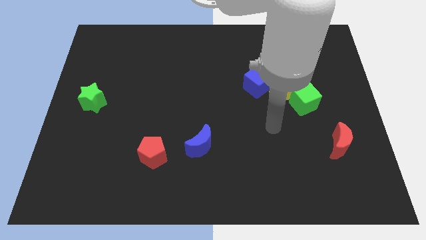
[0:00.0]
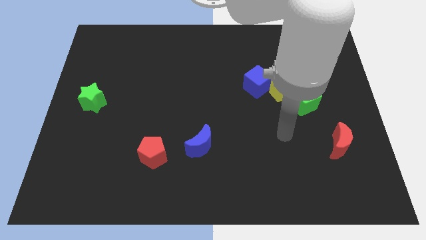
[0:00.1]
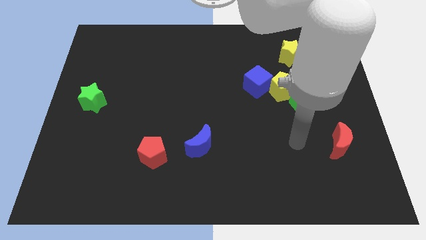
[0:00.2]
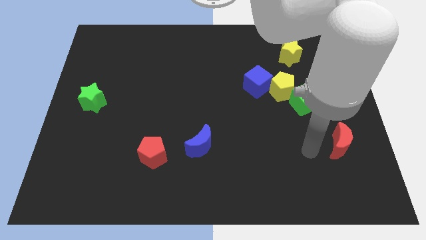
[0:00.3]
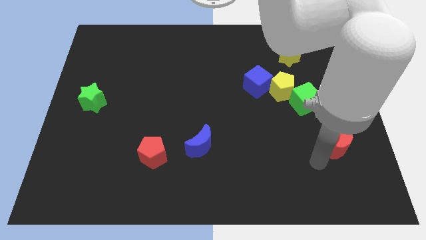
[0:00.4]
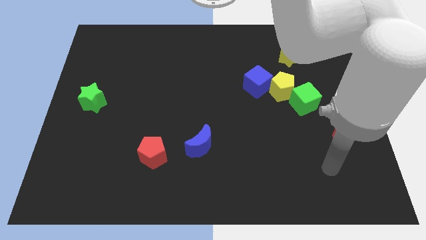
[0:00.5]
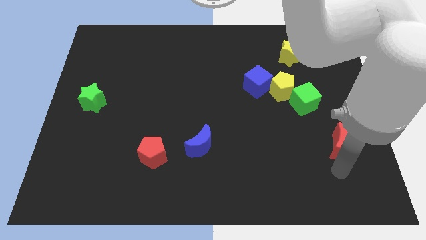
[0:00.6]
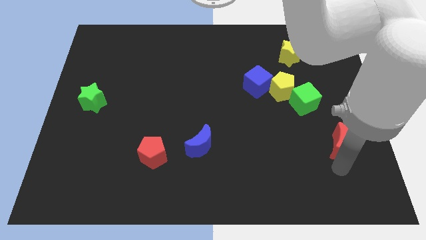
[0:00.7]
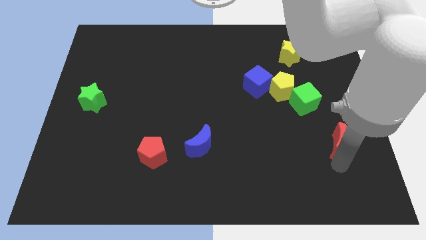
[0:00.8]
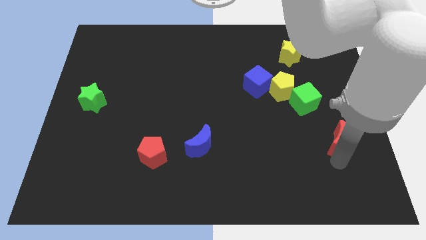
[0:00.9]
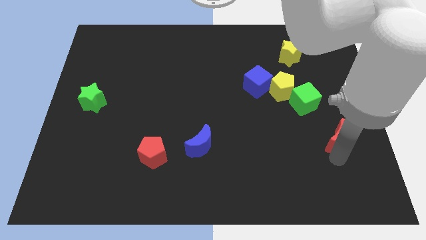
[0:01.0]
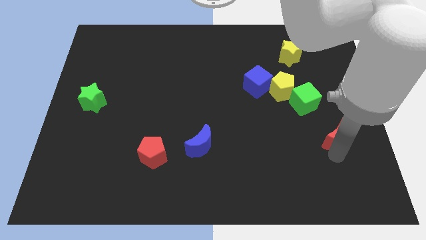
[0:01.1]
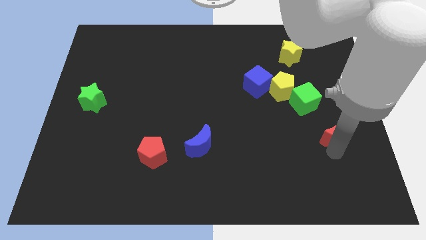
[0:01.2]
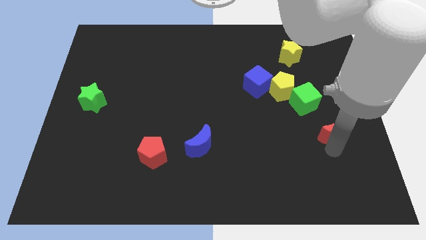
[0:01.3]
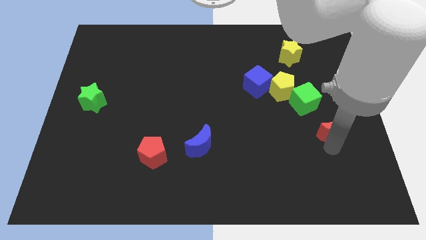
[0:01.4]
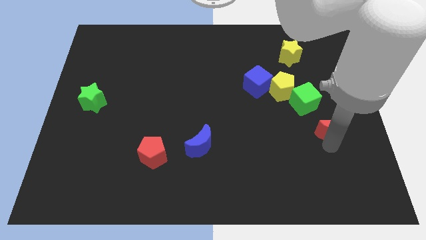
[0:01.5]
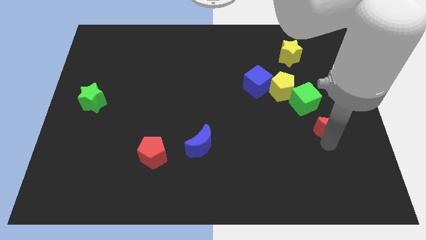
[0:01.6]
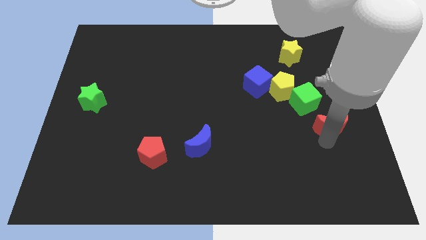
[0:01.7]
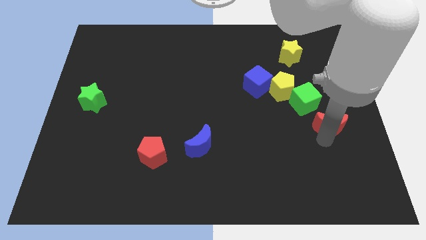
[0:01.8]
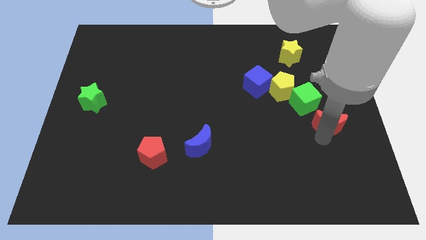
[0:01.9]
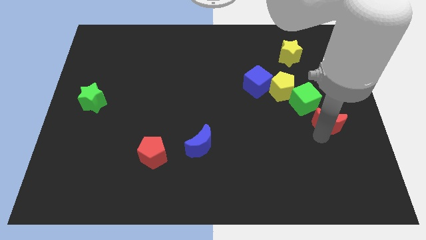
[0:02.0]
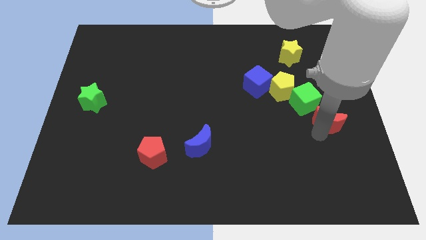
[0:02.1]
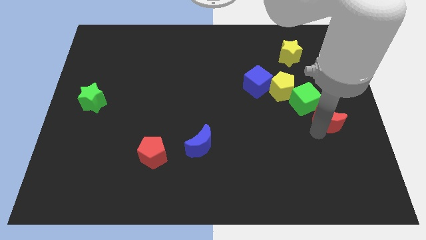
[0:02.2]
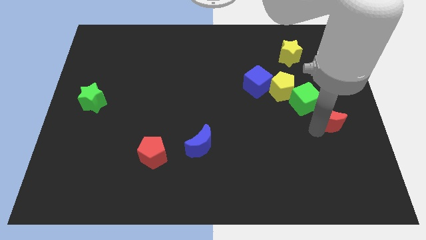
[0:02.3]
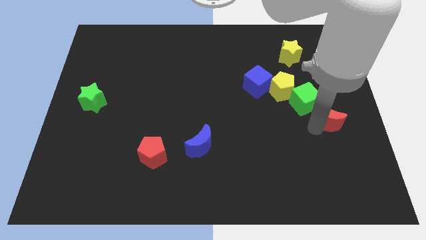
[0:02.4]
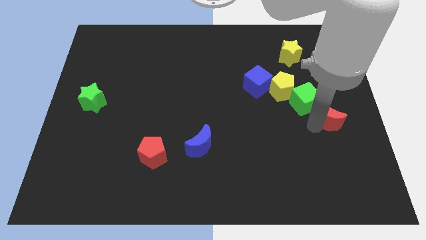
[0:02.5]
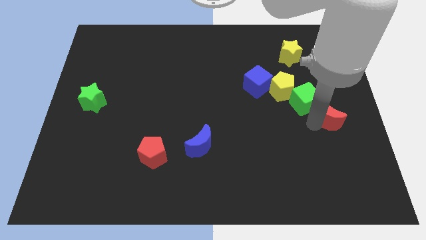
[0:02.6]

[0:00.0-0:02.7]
slide the red moon upwards slightly

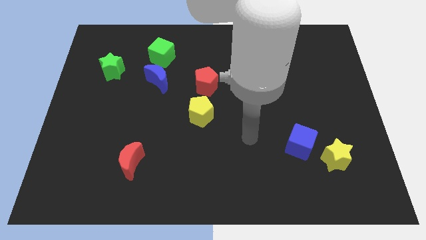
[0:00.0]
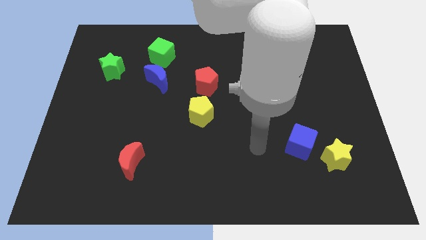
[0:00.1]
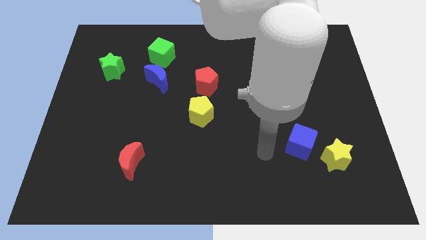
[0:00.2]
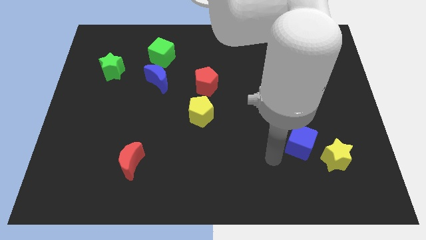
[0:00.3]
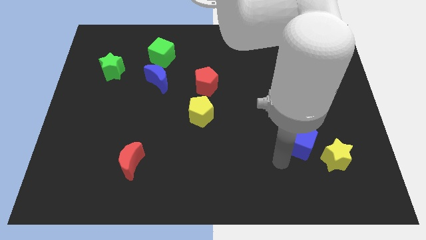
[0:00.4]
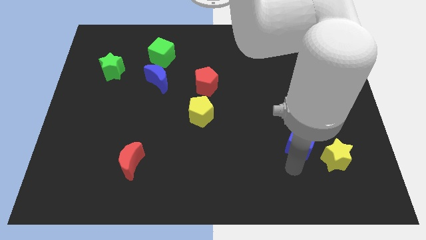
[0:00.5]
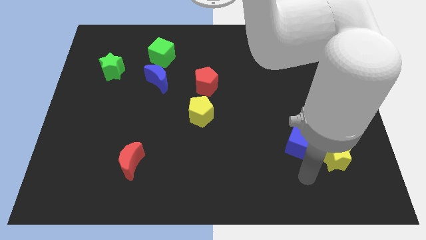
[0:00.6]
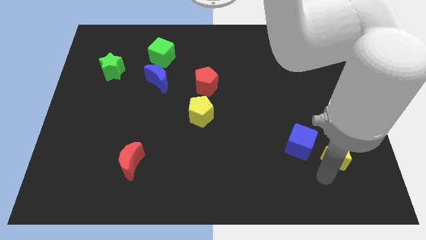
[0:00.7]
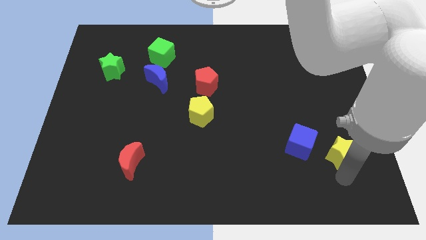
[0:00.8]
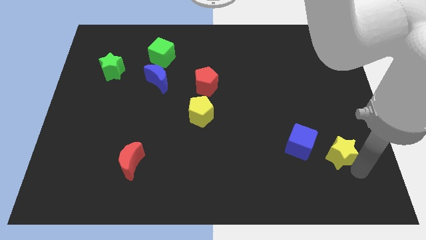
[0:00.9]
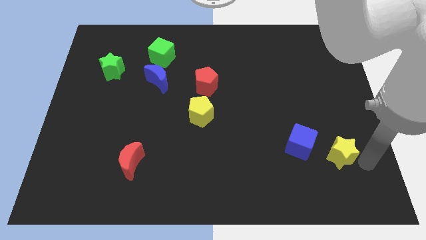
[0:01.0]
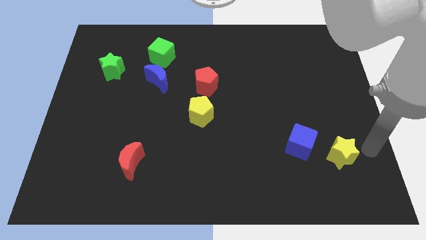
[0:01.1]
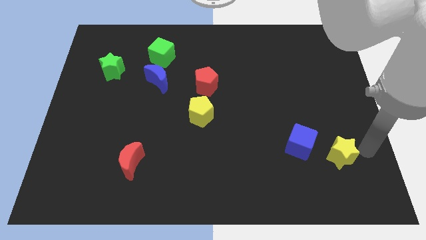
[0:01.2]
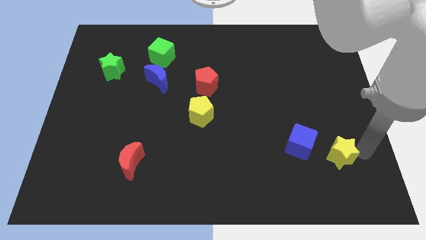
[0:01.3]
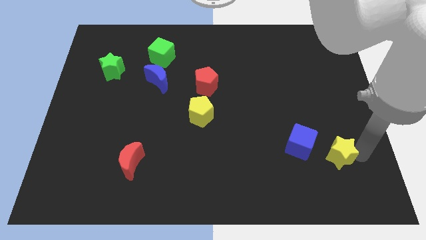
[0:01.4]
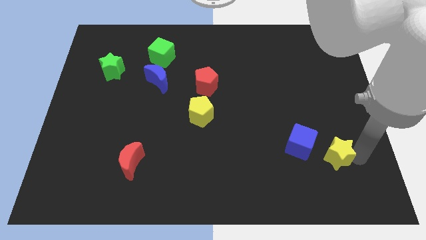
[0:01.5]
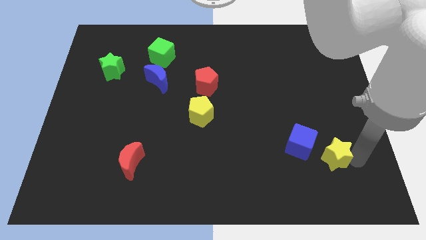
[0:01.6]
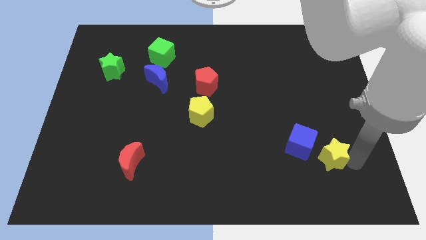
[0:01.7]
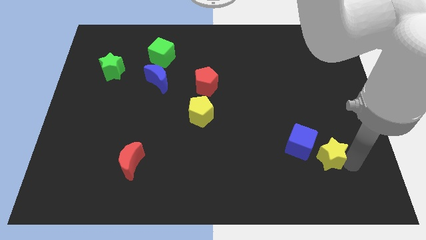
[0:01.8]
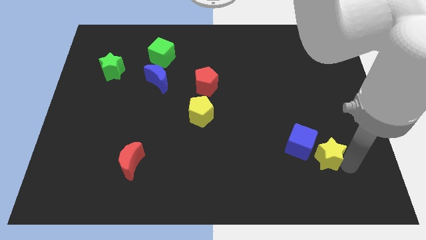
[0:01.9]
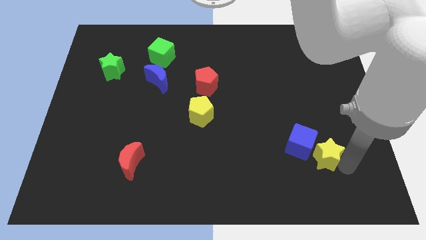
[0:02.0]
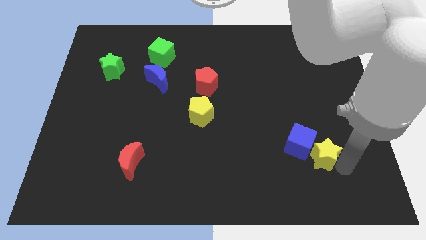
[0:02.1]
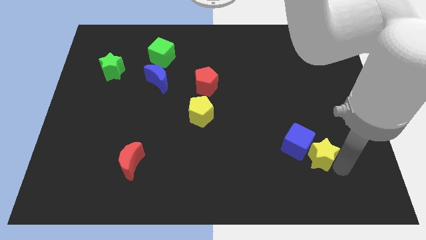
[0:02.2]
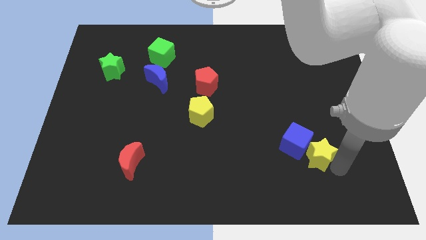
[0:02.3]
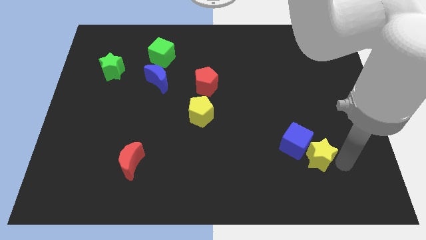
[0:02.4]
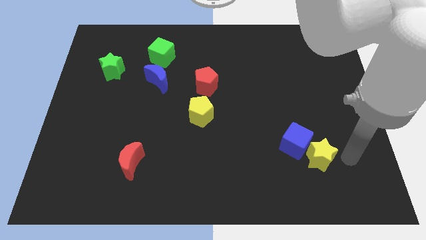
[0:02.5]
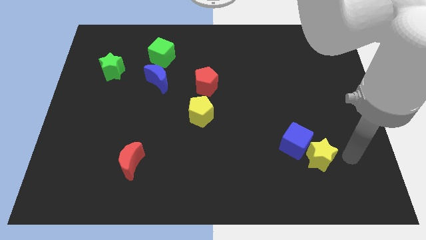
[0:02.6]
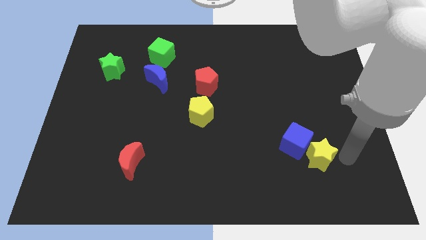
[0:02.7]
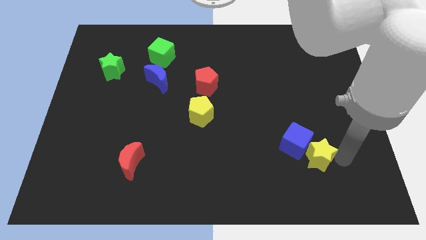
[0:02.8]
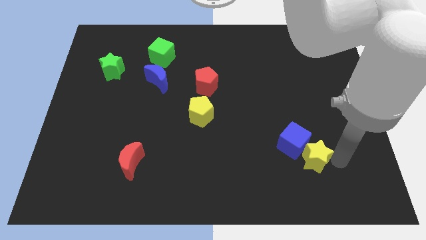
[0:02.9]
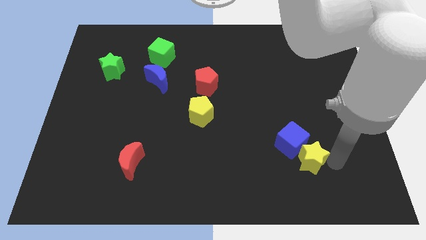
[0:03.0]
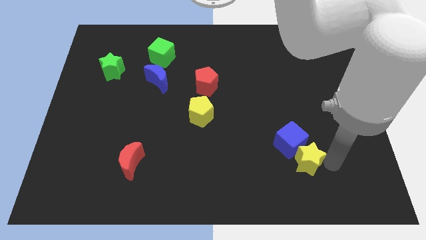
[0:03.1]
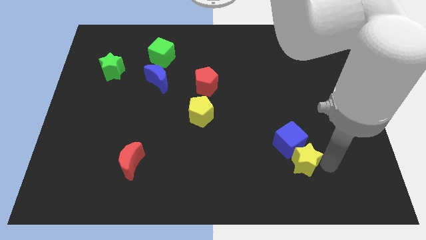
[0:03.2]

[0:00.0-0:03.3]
move the yellow star left a little

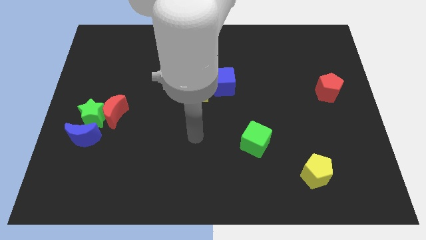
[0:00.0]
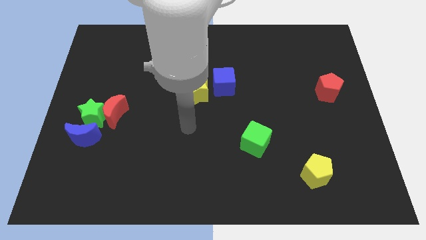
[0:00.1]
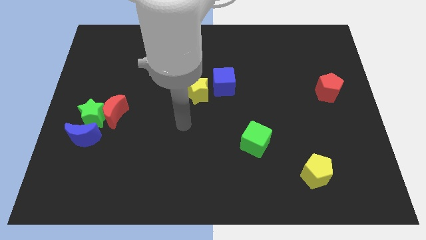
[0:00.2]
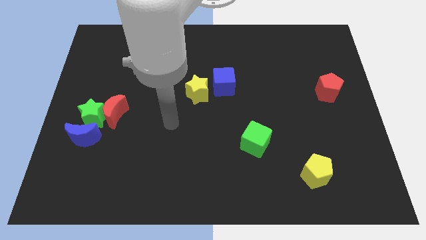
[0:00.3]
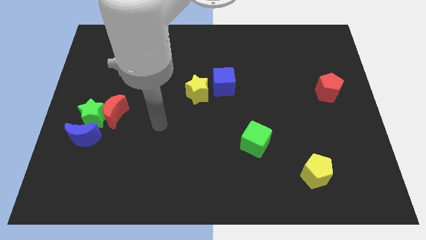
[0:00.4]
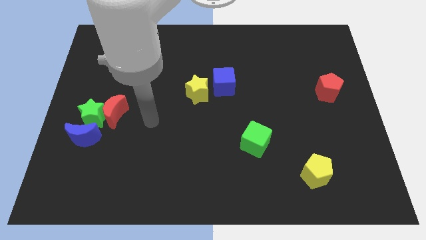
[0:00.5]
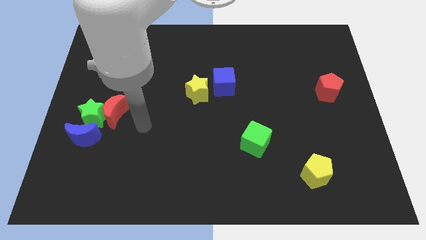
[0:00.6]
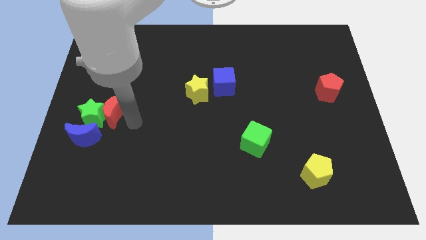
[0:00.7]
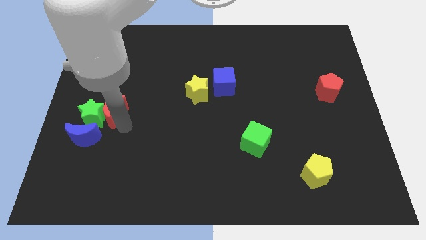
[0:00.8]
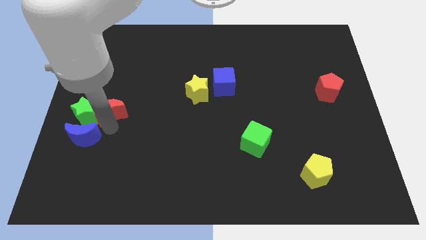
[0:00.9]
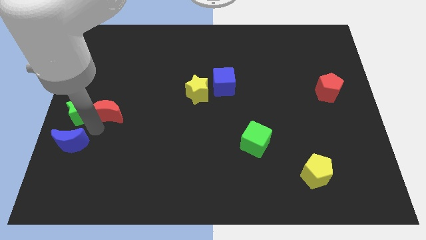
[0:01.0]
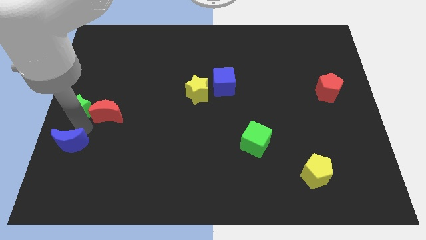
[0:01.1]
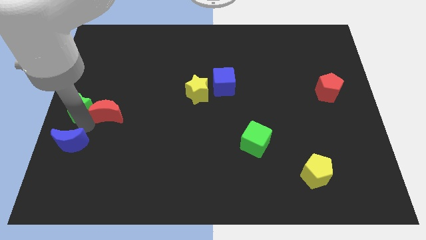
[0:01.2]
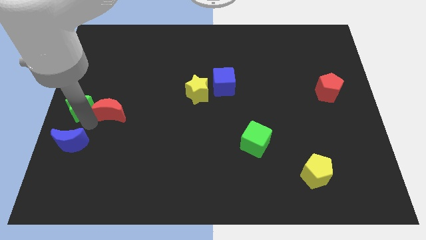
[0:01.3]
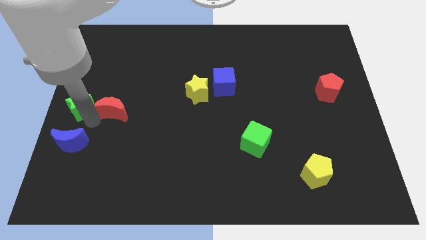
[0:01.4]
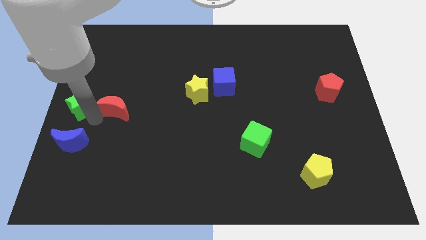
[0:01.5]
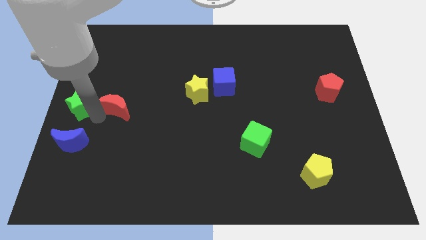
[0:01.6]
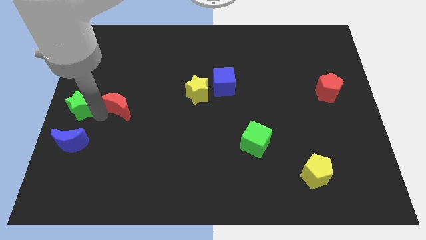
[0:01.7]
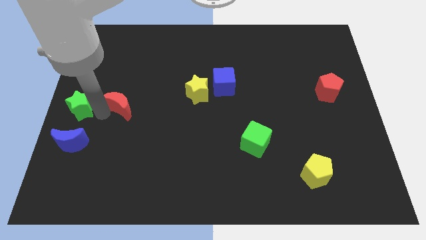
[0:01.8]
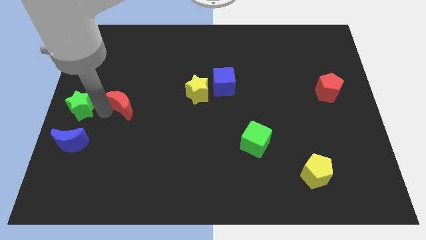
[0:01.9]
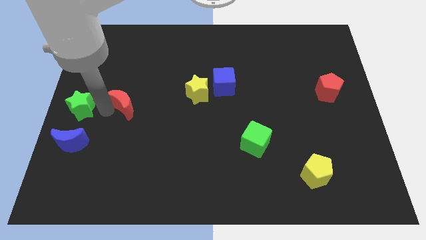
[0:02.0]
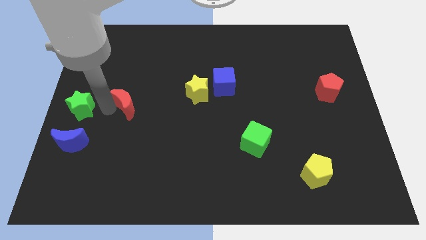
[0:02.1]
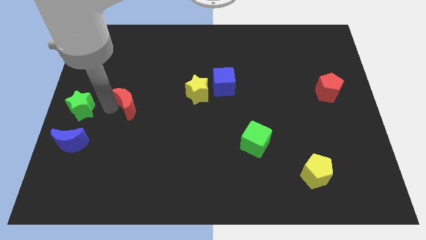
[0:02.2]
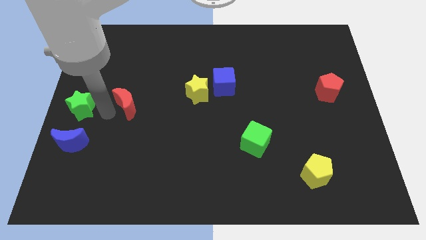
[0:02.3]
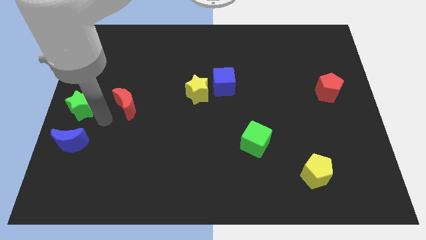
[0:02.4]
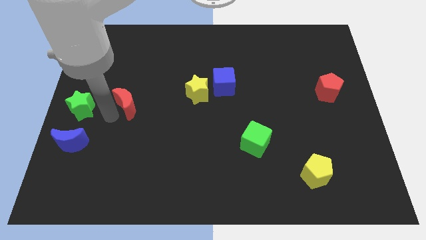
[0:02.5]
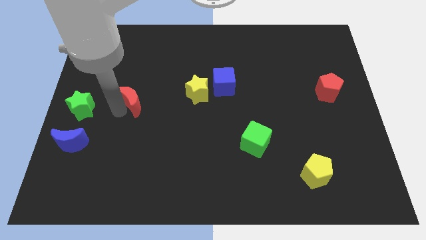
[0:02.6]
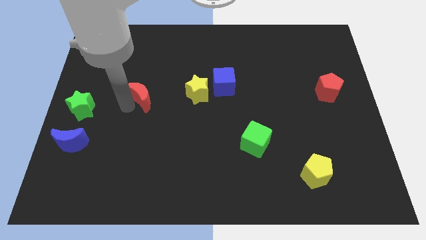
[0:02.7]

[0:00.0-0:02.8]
slightly slide the red moon upwards and right
